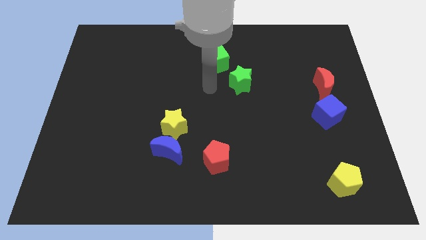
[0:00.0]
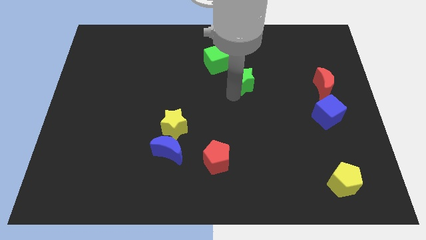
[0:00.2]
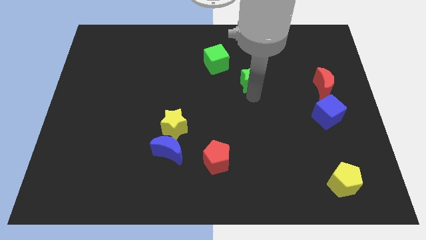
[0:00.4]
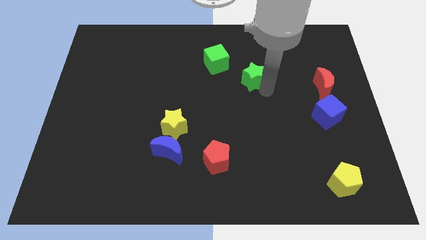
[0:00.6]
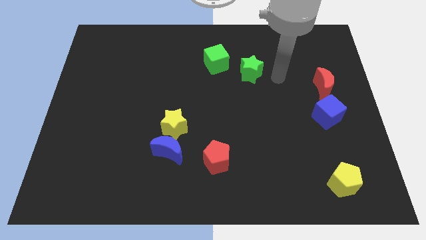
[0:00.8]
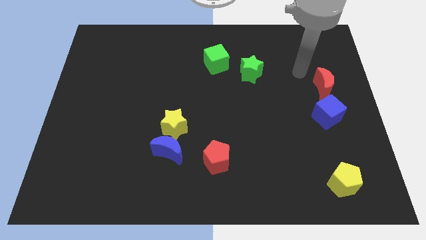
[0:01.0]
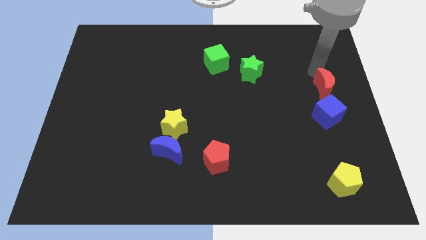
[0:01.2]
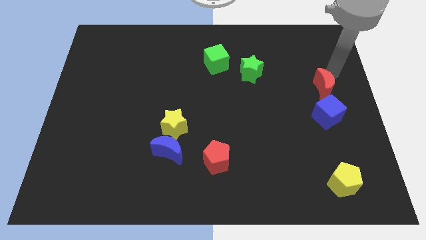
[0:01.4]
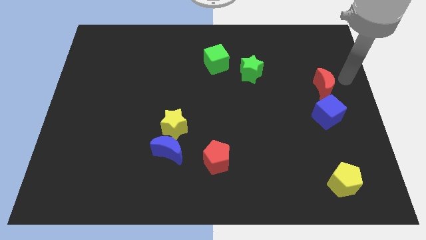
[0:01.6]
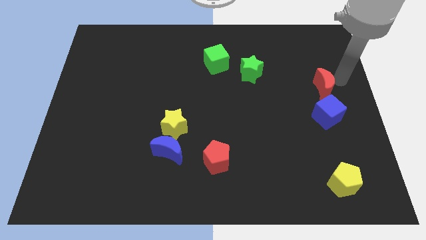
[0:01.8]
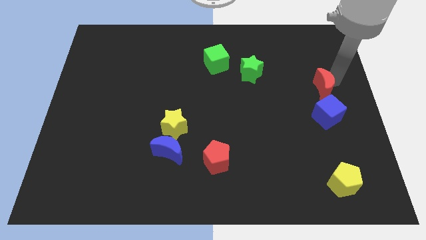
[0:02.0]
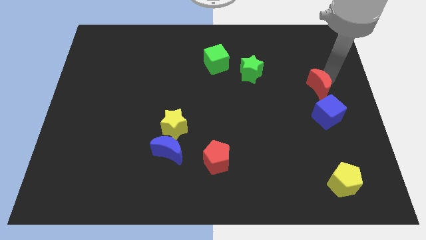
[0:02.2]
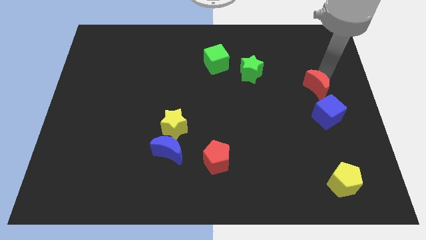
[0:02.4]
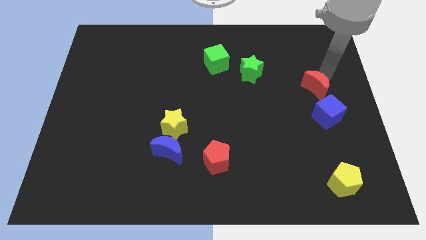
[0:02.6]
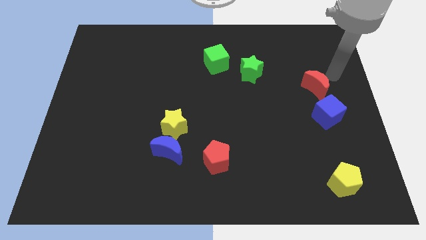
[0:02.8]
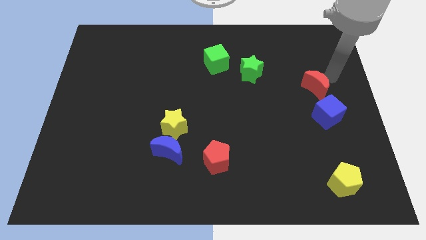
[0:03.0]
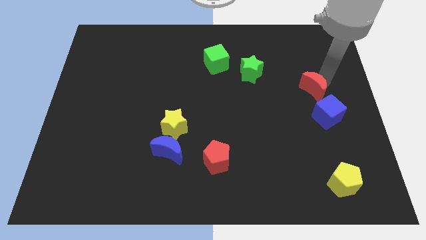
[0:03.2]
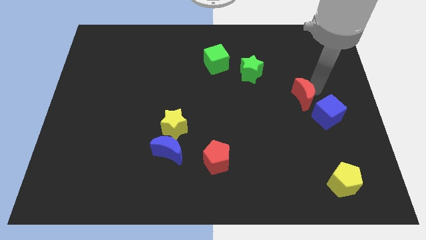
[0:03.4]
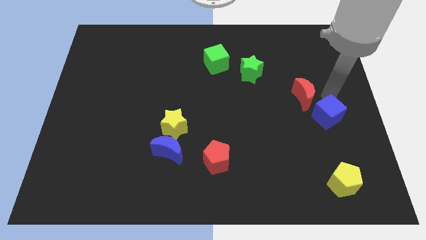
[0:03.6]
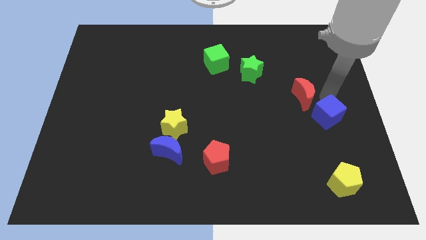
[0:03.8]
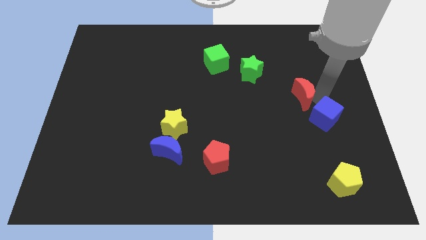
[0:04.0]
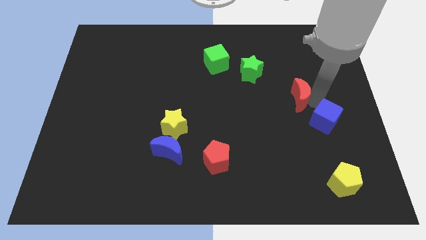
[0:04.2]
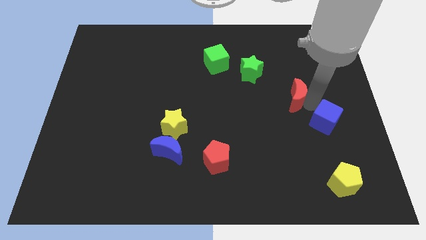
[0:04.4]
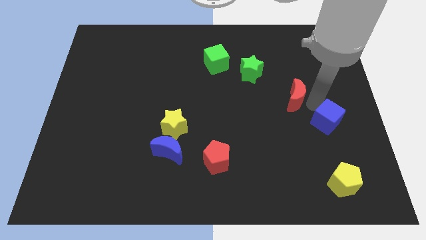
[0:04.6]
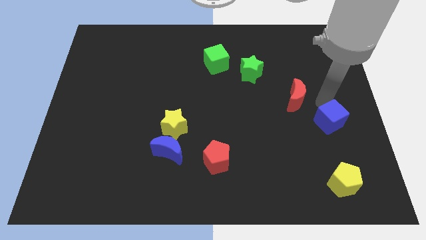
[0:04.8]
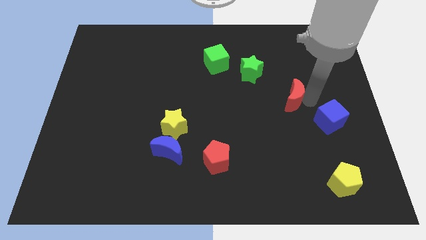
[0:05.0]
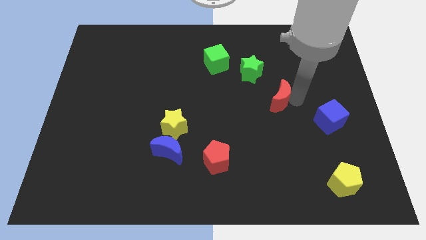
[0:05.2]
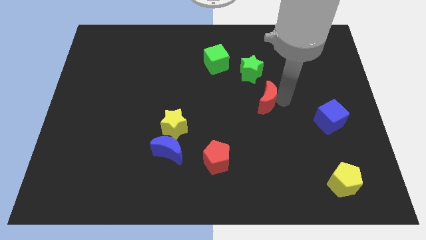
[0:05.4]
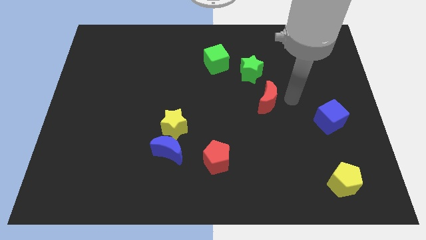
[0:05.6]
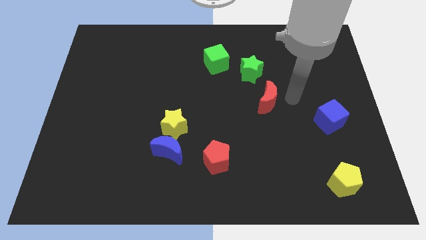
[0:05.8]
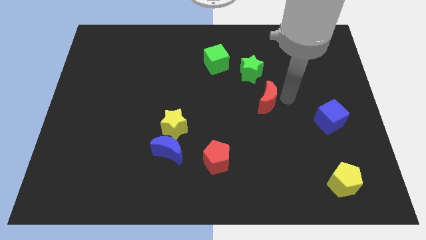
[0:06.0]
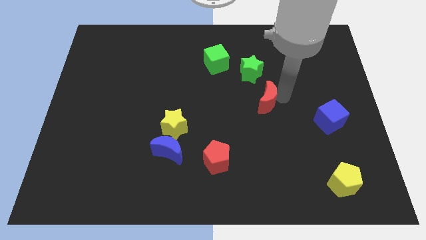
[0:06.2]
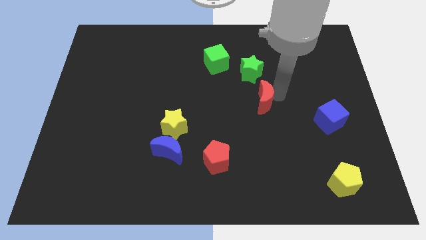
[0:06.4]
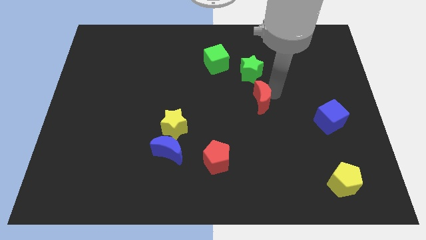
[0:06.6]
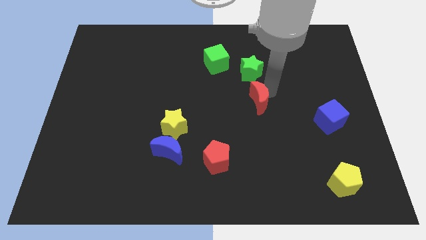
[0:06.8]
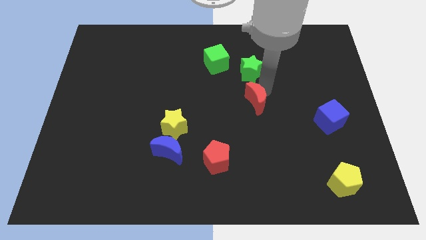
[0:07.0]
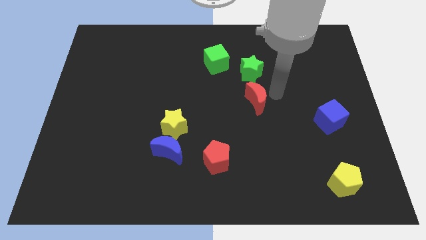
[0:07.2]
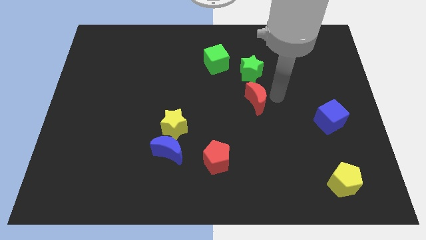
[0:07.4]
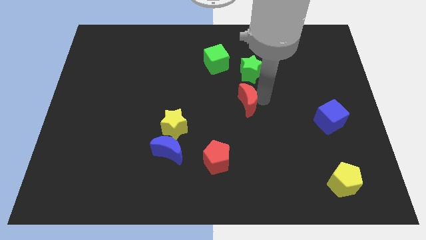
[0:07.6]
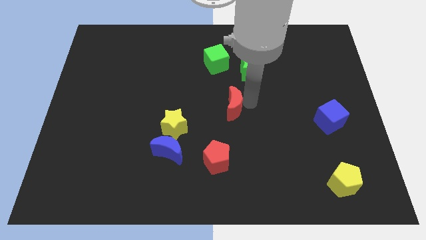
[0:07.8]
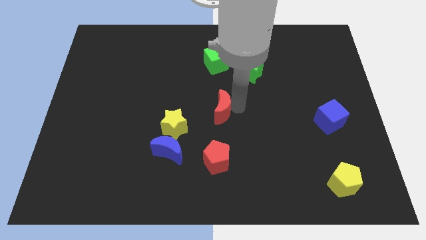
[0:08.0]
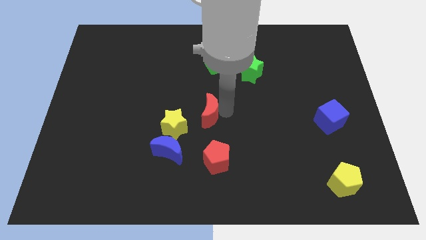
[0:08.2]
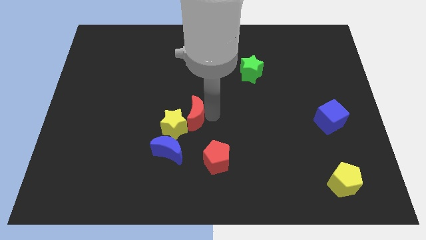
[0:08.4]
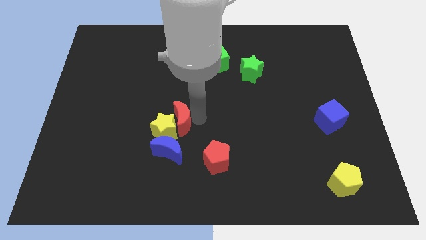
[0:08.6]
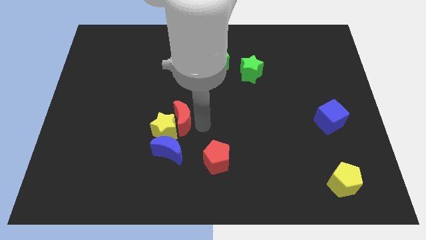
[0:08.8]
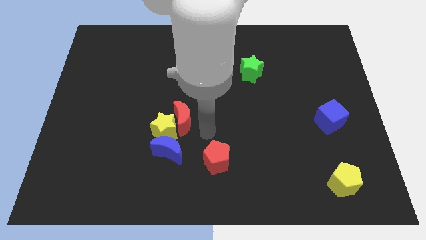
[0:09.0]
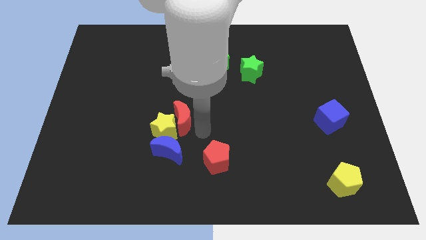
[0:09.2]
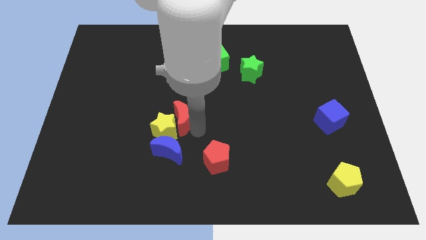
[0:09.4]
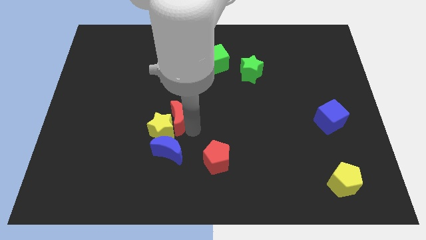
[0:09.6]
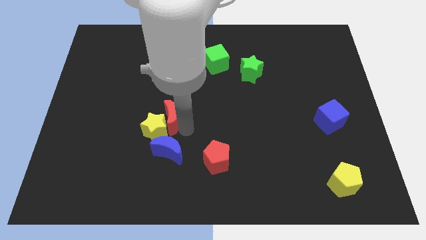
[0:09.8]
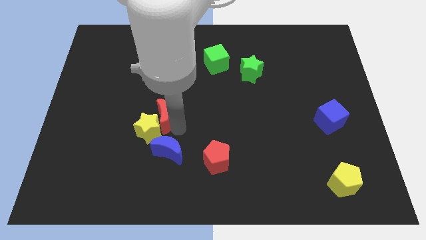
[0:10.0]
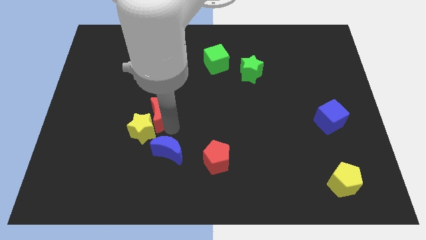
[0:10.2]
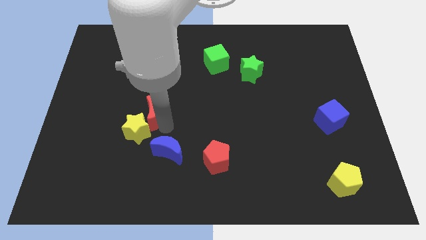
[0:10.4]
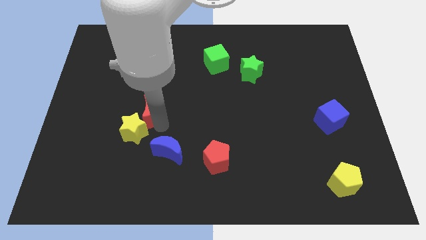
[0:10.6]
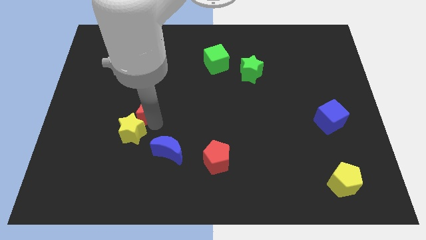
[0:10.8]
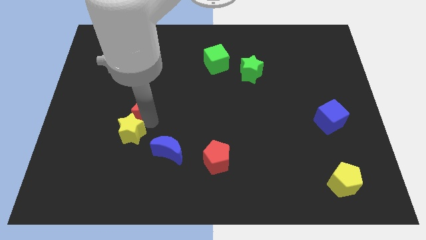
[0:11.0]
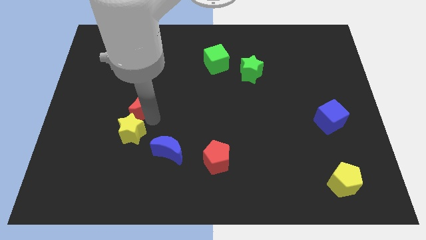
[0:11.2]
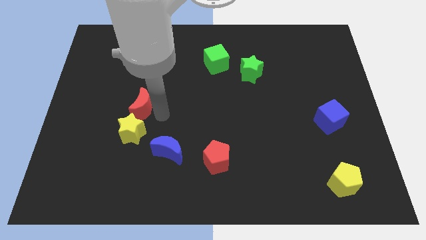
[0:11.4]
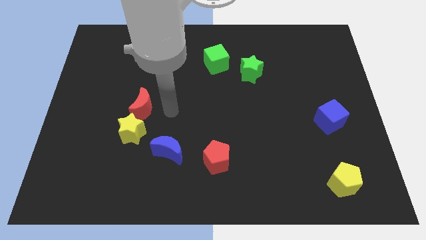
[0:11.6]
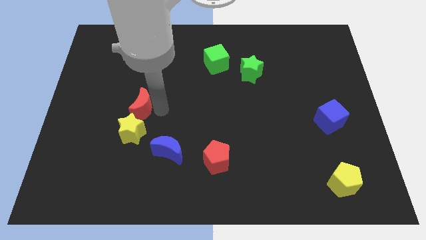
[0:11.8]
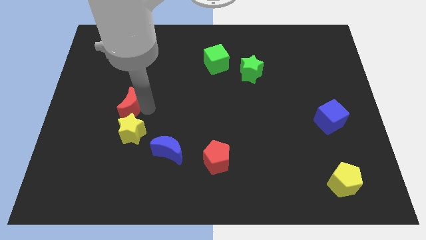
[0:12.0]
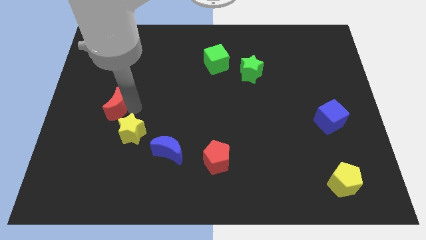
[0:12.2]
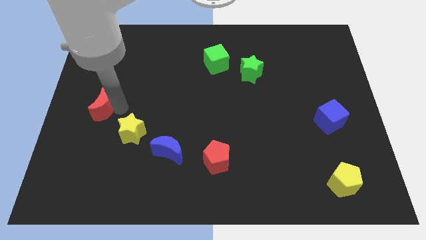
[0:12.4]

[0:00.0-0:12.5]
move the red moon to the center left
